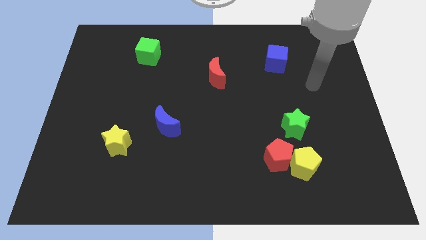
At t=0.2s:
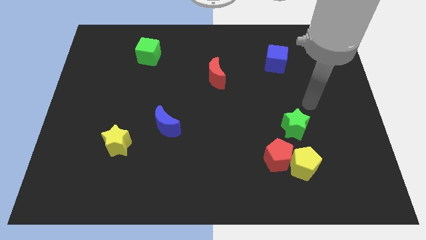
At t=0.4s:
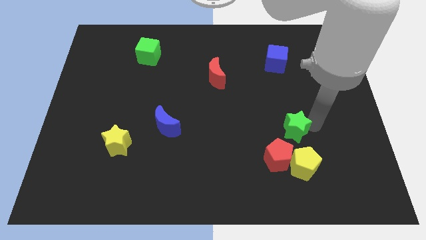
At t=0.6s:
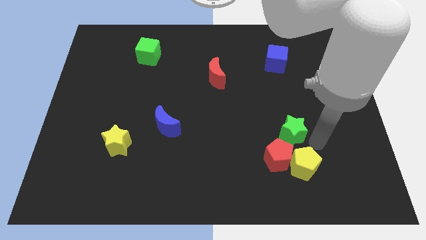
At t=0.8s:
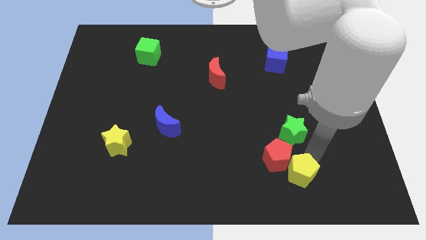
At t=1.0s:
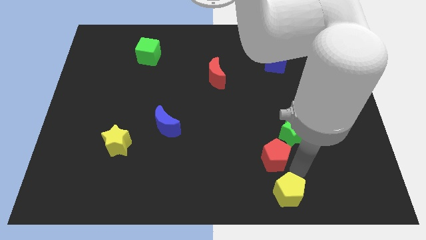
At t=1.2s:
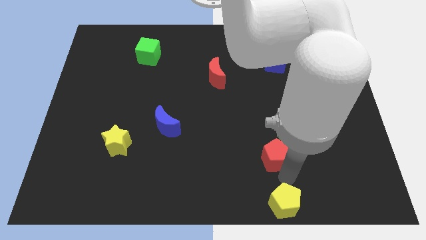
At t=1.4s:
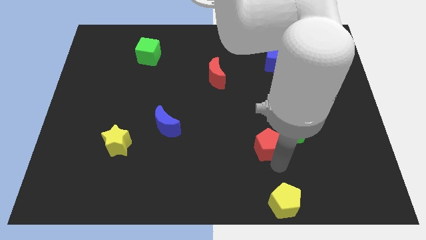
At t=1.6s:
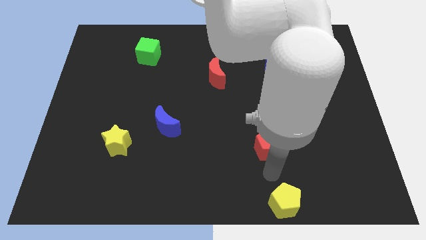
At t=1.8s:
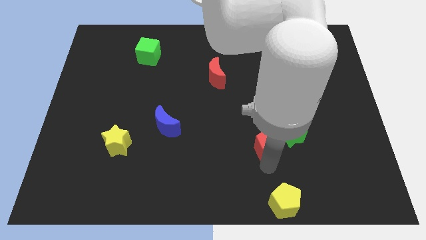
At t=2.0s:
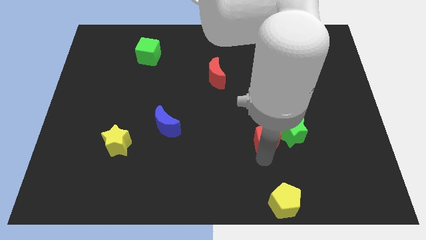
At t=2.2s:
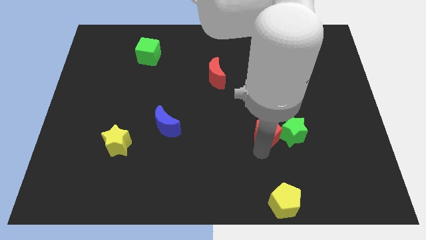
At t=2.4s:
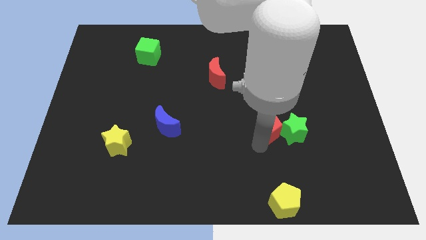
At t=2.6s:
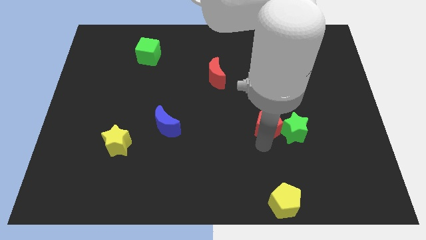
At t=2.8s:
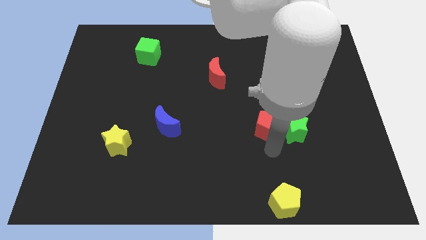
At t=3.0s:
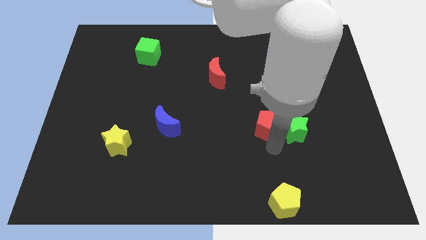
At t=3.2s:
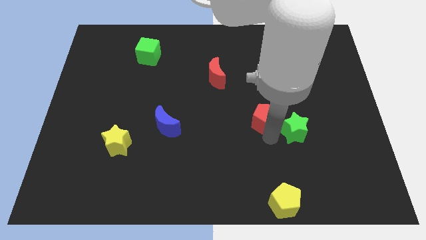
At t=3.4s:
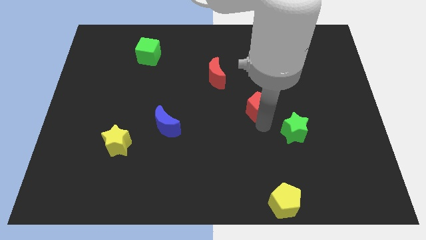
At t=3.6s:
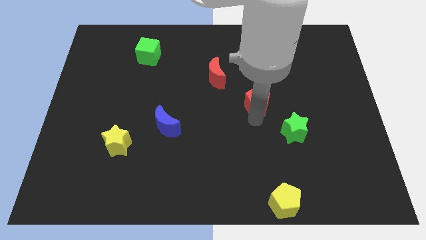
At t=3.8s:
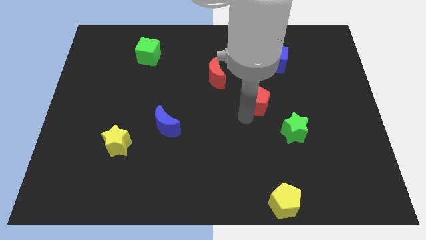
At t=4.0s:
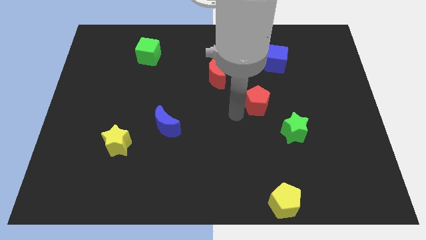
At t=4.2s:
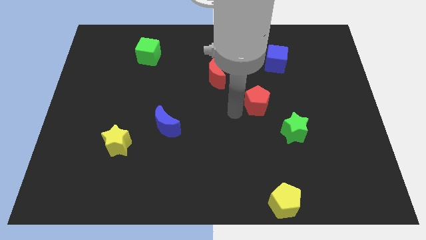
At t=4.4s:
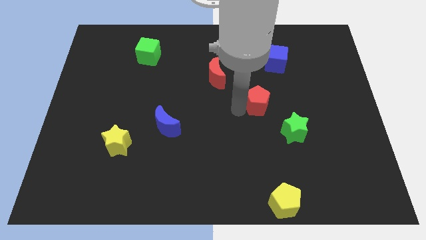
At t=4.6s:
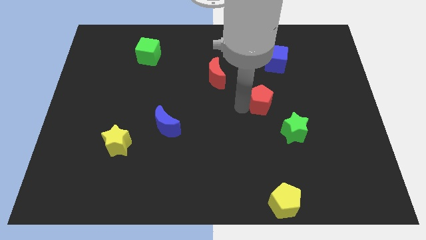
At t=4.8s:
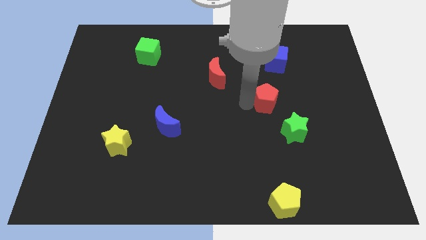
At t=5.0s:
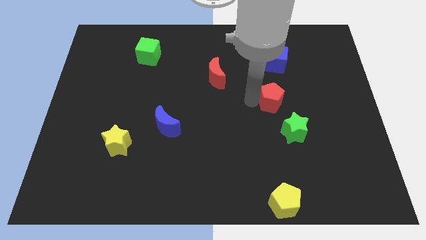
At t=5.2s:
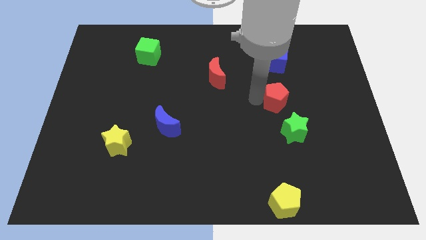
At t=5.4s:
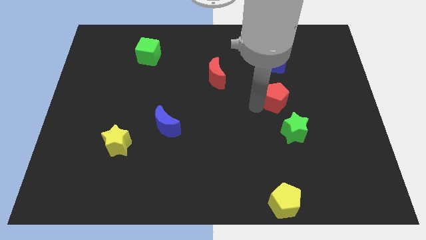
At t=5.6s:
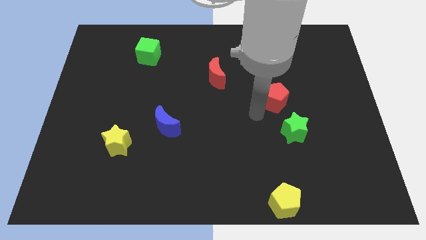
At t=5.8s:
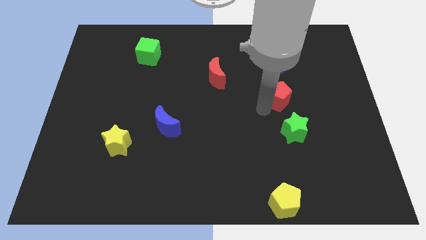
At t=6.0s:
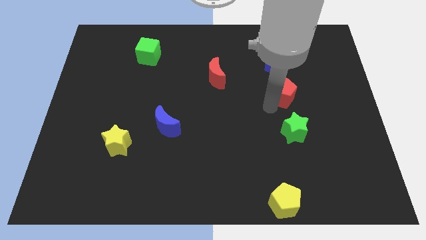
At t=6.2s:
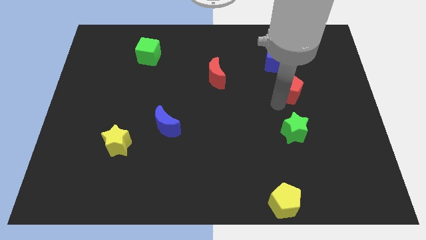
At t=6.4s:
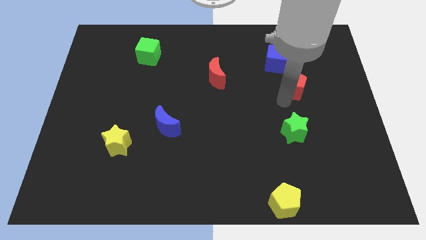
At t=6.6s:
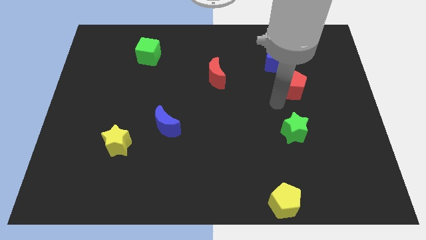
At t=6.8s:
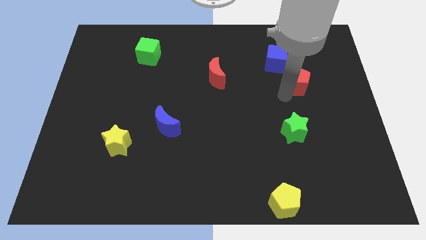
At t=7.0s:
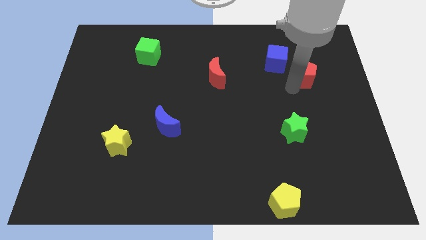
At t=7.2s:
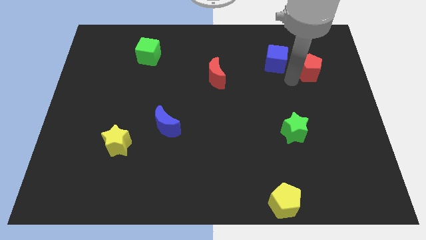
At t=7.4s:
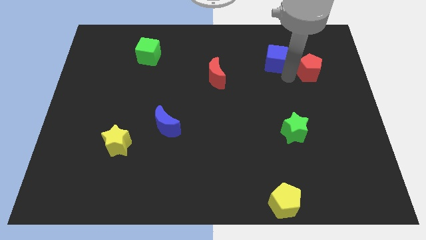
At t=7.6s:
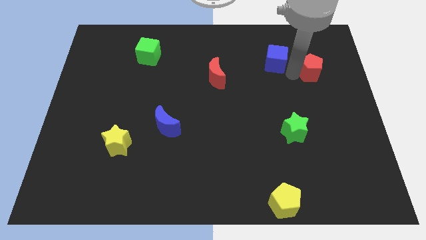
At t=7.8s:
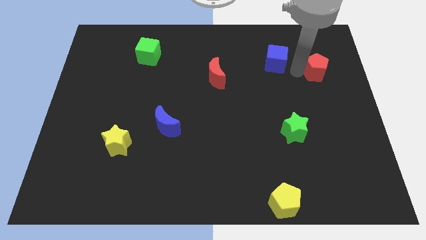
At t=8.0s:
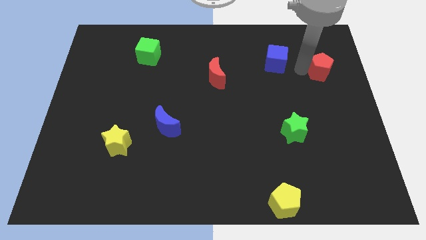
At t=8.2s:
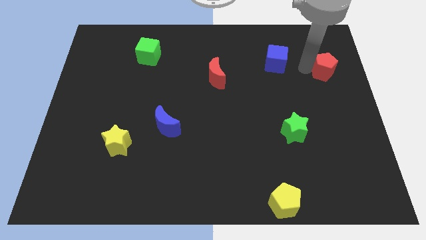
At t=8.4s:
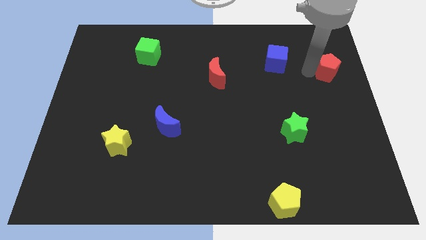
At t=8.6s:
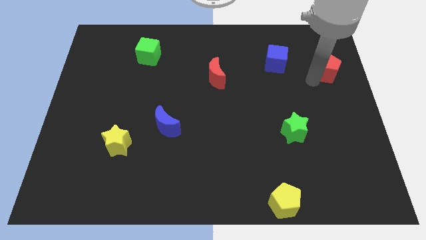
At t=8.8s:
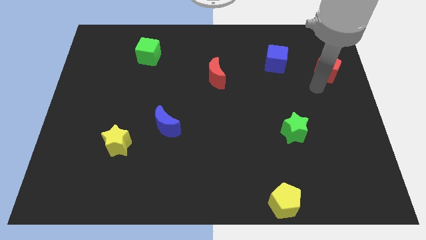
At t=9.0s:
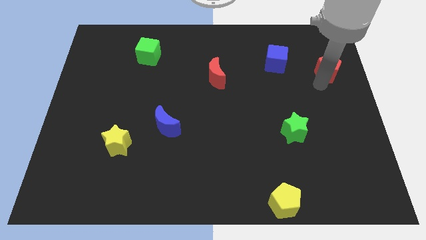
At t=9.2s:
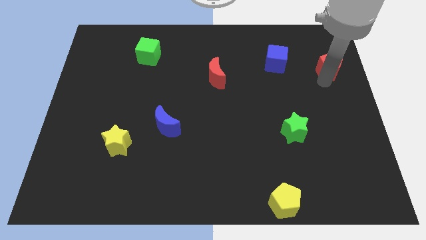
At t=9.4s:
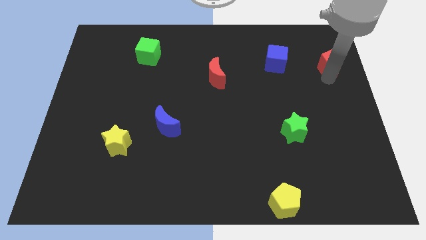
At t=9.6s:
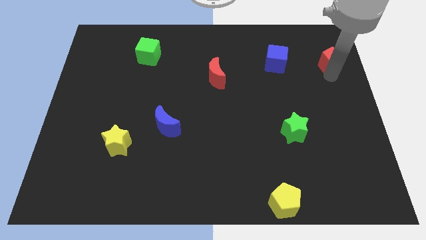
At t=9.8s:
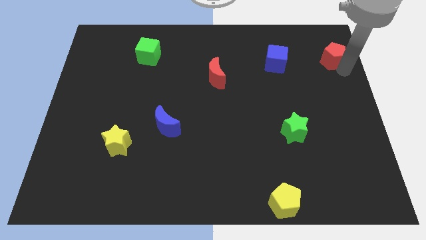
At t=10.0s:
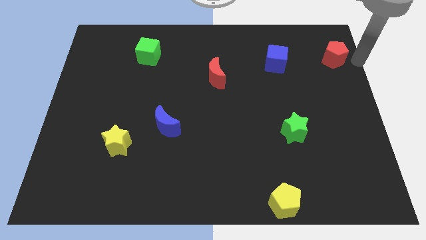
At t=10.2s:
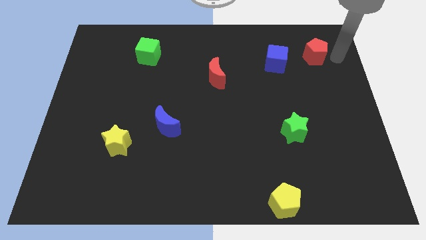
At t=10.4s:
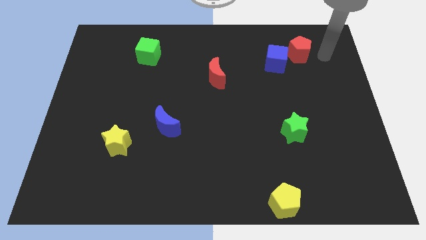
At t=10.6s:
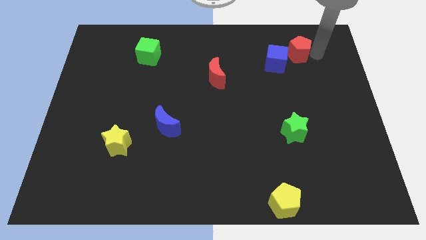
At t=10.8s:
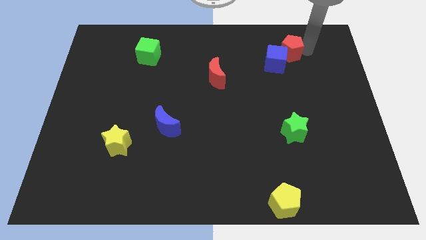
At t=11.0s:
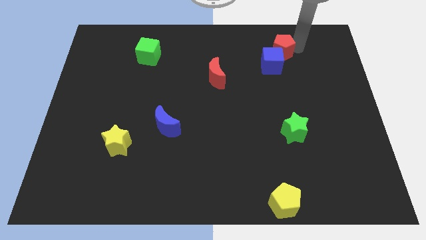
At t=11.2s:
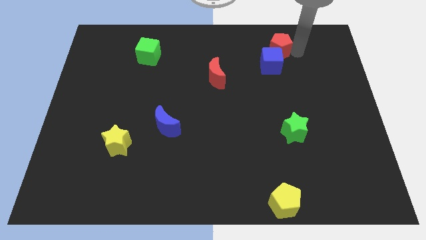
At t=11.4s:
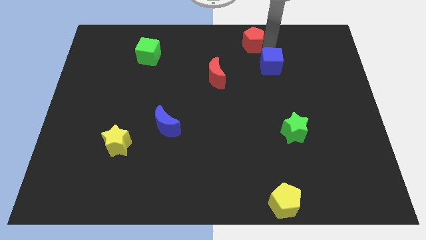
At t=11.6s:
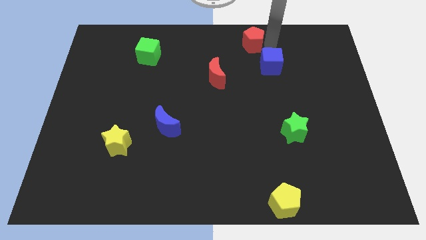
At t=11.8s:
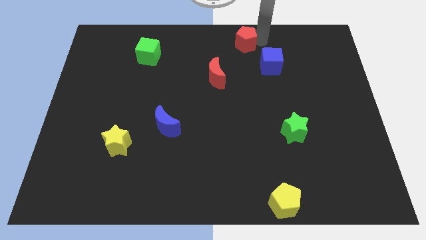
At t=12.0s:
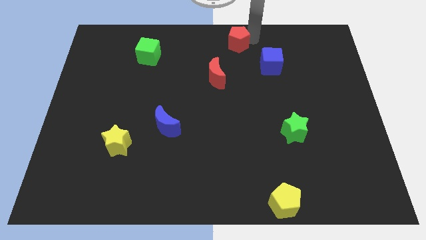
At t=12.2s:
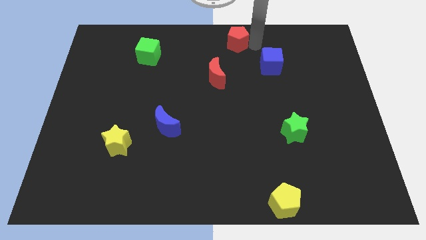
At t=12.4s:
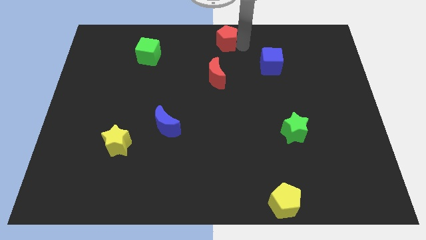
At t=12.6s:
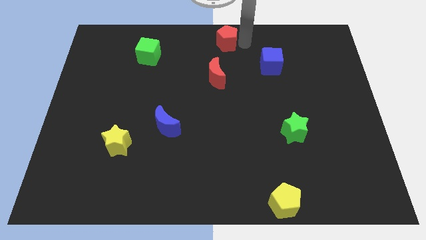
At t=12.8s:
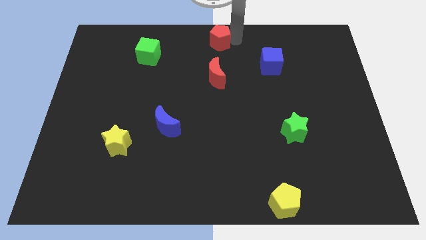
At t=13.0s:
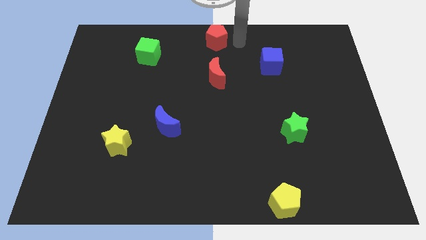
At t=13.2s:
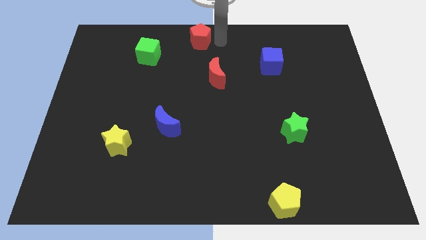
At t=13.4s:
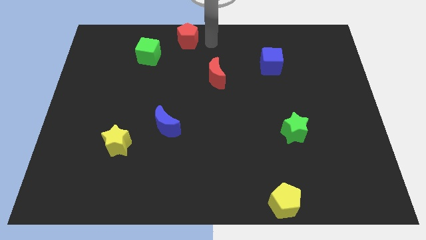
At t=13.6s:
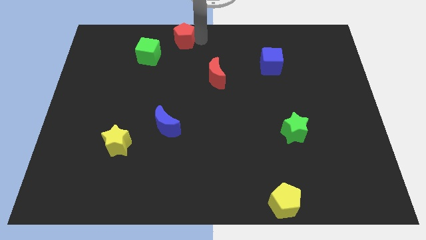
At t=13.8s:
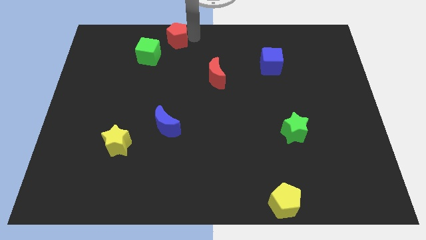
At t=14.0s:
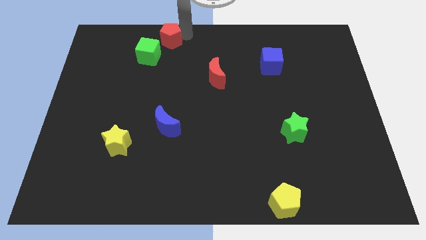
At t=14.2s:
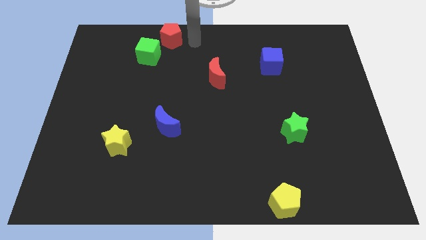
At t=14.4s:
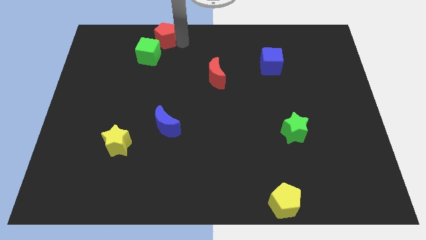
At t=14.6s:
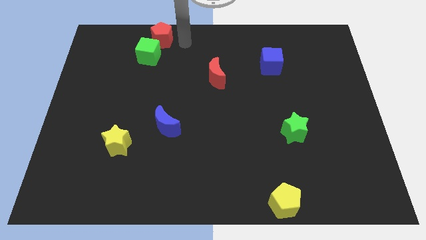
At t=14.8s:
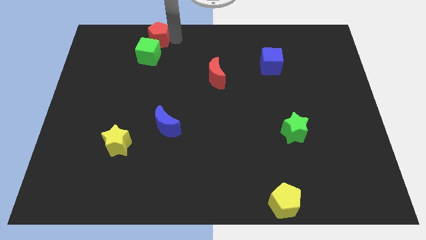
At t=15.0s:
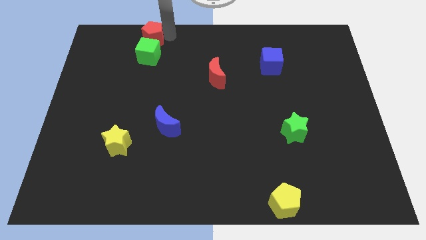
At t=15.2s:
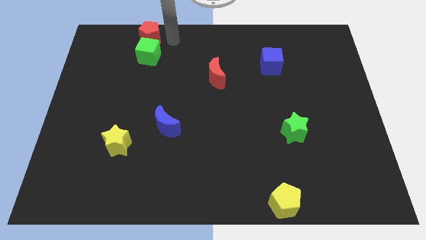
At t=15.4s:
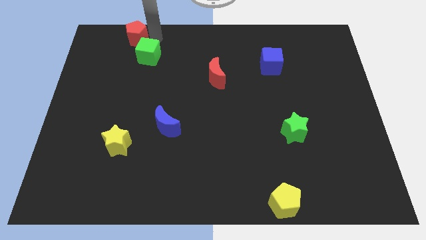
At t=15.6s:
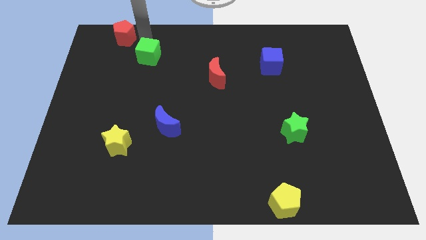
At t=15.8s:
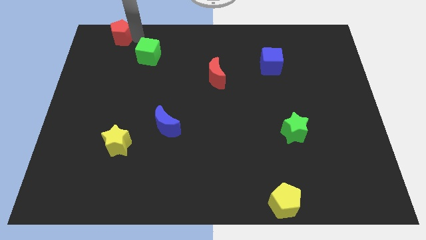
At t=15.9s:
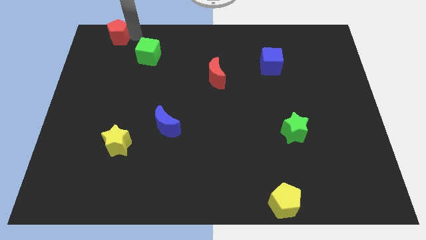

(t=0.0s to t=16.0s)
put the red pentagon to the top left
